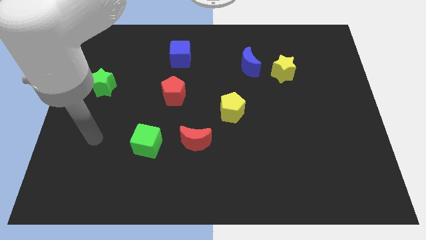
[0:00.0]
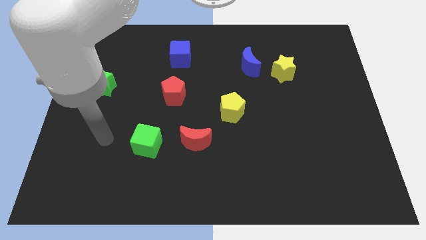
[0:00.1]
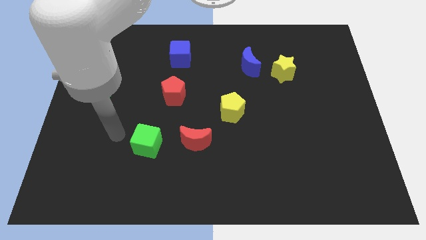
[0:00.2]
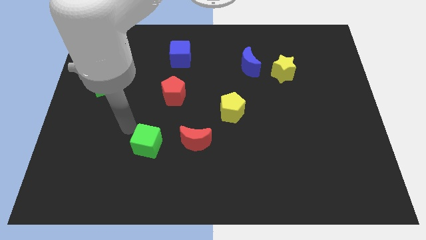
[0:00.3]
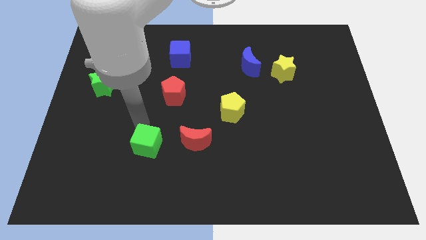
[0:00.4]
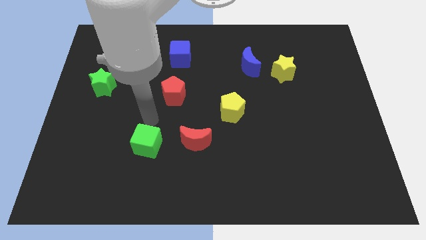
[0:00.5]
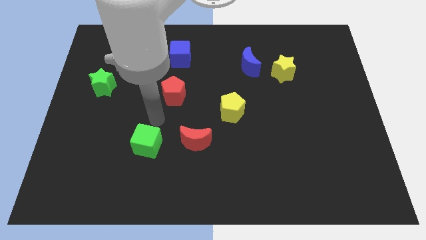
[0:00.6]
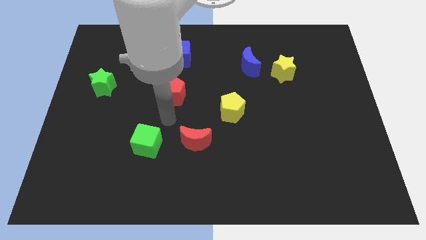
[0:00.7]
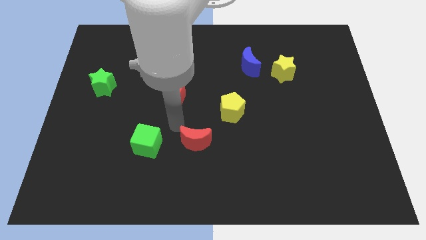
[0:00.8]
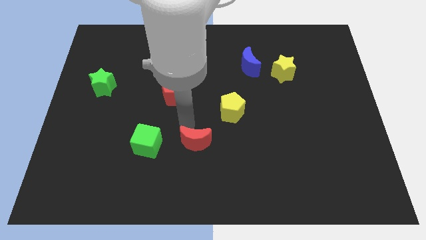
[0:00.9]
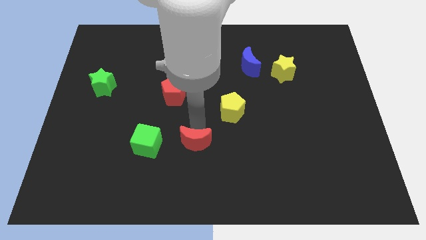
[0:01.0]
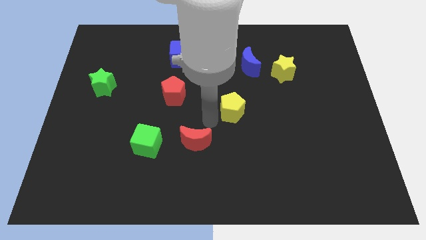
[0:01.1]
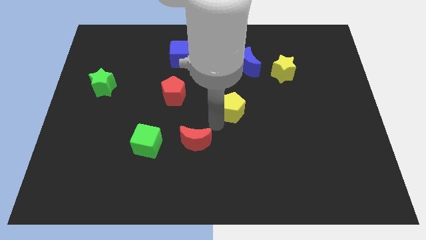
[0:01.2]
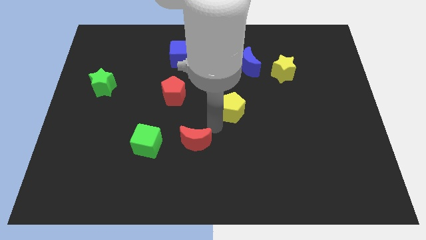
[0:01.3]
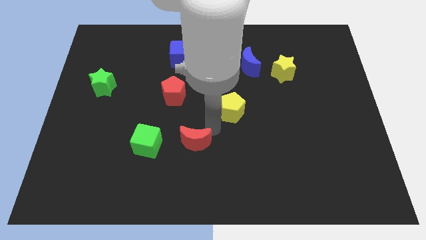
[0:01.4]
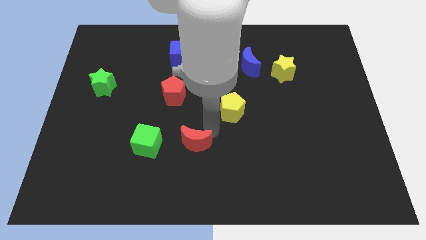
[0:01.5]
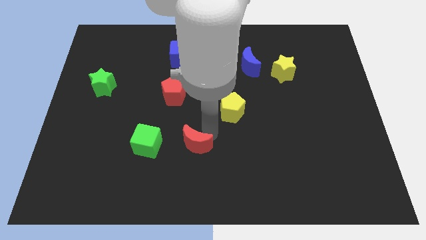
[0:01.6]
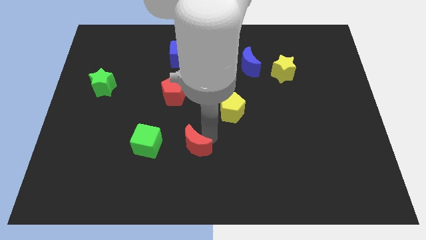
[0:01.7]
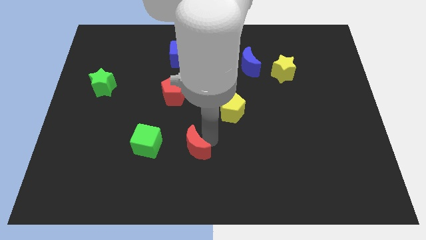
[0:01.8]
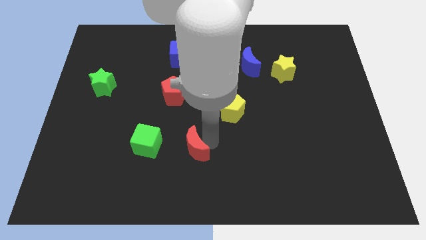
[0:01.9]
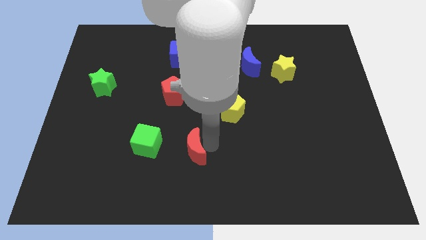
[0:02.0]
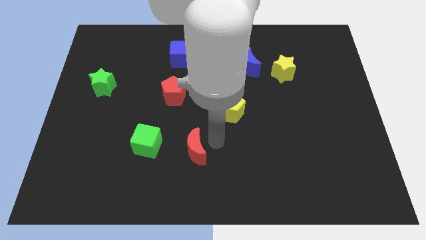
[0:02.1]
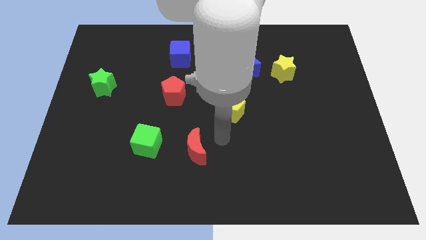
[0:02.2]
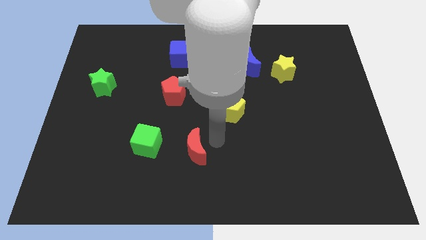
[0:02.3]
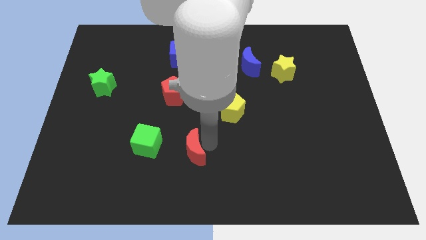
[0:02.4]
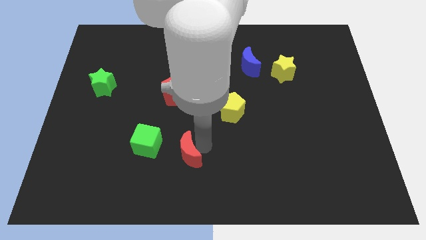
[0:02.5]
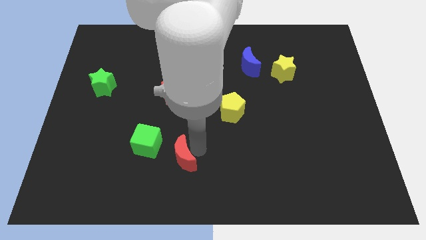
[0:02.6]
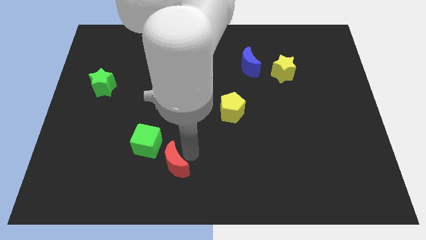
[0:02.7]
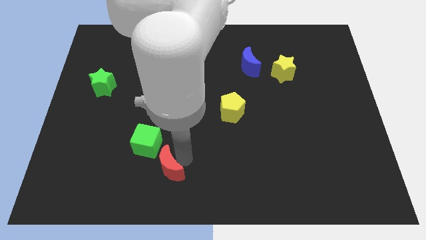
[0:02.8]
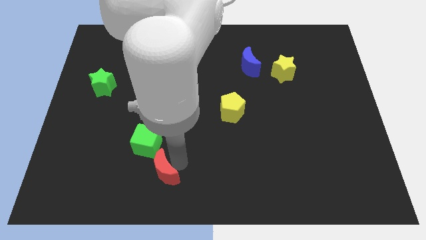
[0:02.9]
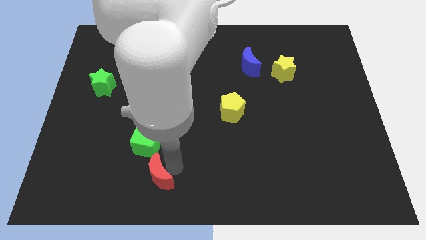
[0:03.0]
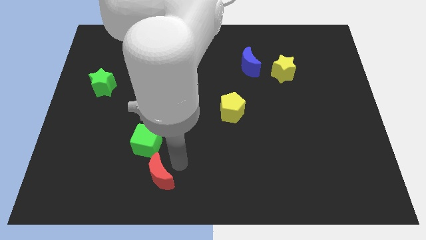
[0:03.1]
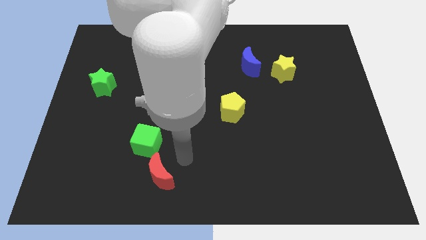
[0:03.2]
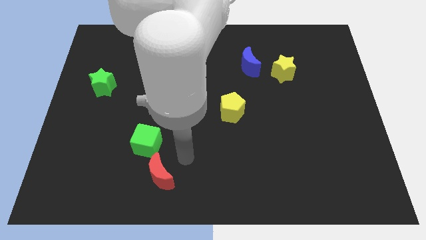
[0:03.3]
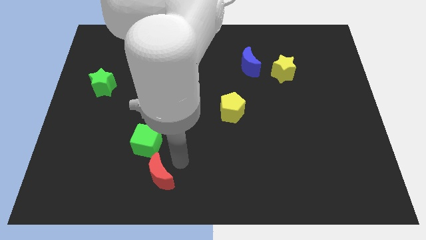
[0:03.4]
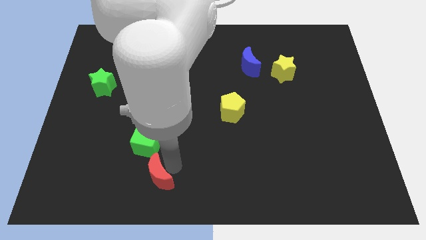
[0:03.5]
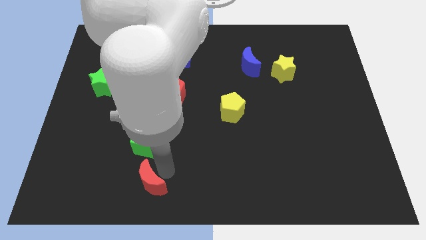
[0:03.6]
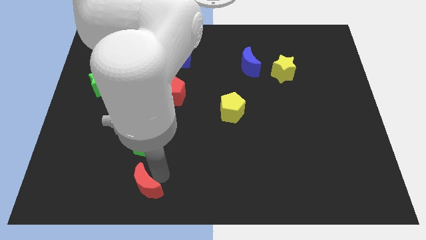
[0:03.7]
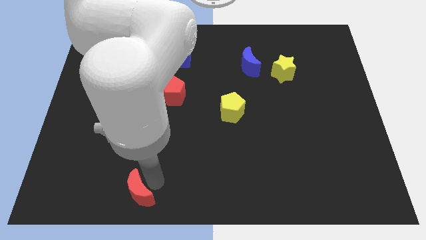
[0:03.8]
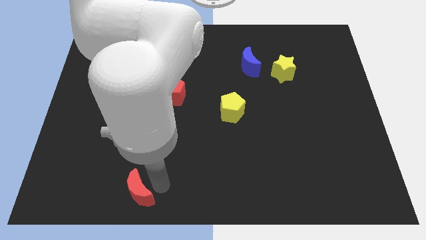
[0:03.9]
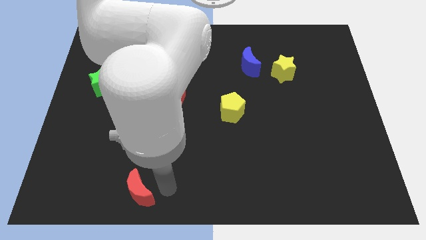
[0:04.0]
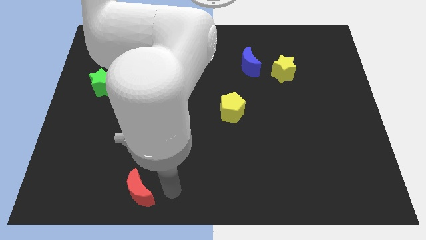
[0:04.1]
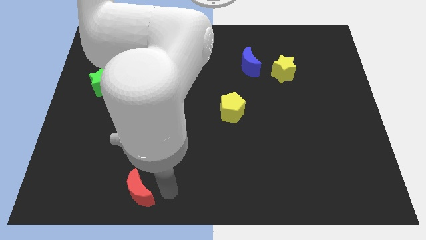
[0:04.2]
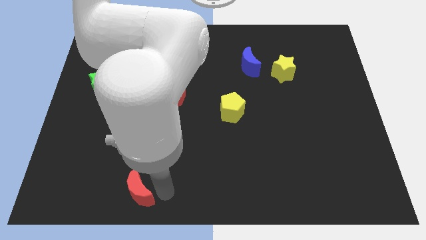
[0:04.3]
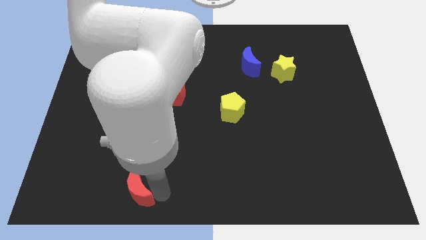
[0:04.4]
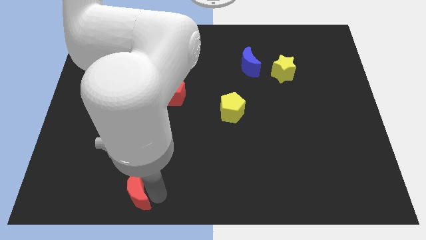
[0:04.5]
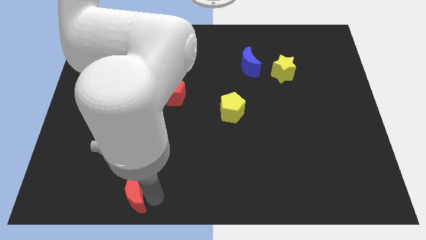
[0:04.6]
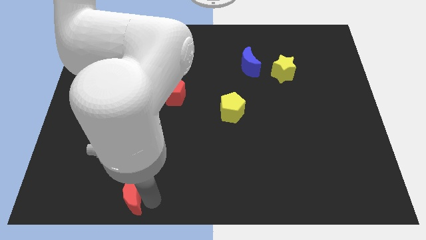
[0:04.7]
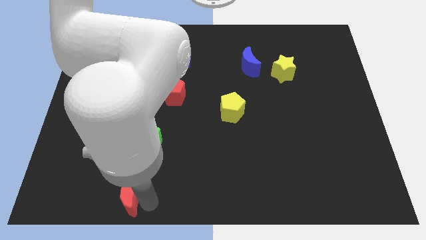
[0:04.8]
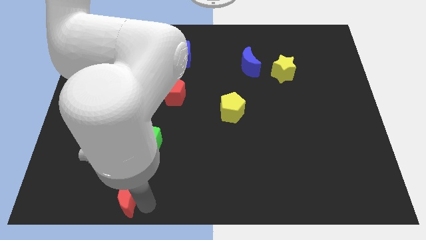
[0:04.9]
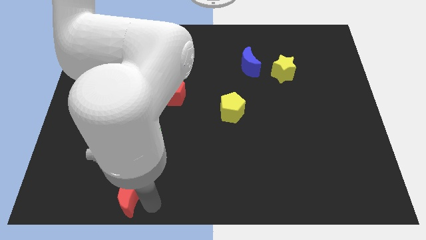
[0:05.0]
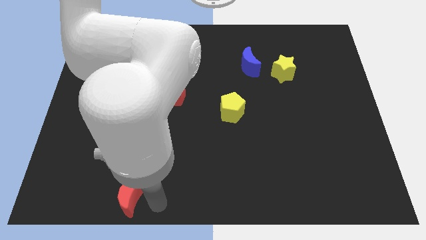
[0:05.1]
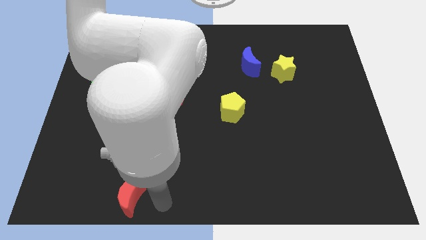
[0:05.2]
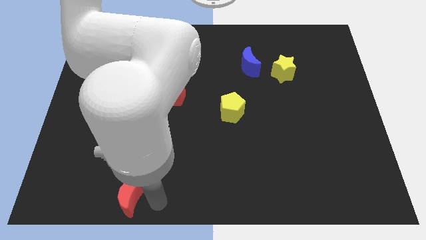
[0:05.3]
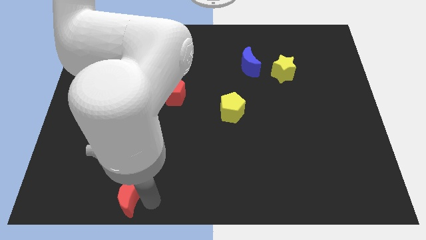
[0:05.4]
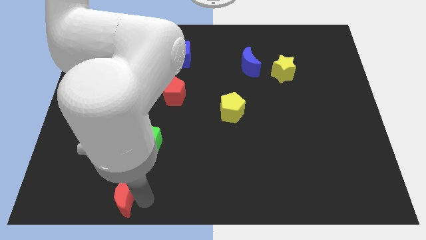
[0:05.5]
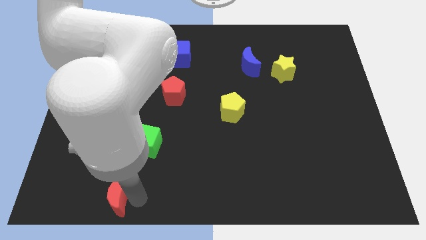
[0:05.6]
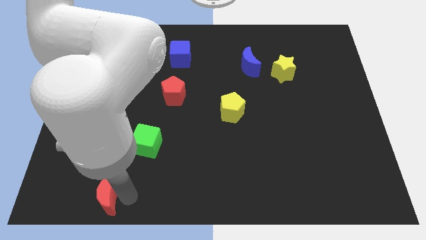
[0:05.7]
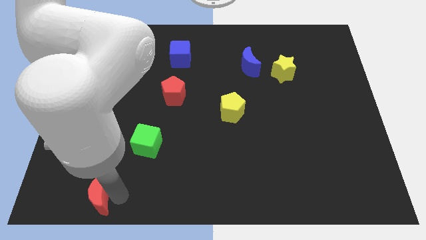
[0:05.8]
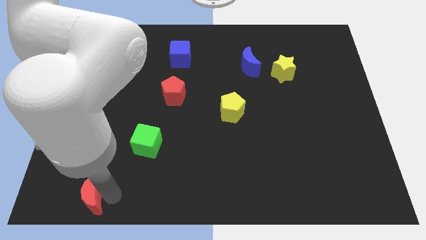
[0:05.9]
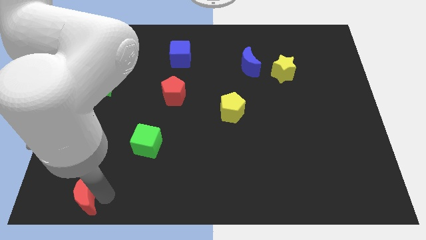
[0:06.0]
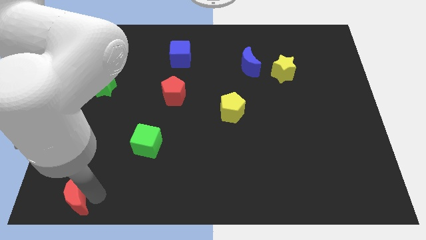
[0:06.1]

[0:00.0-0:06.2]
push the red moon to the bottom left of the board
